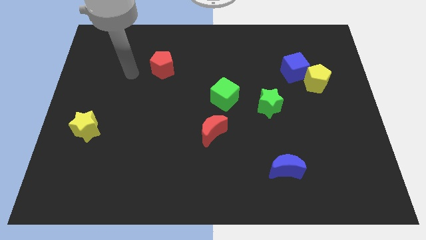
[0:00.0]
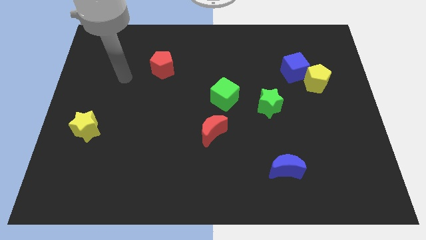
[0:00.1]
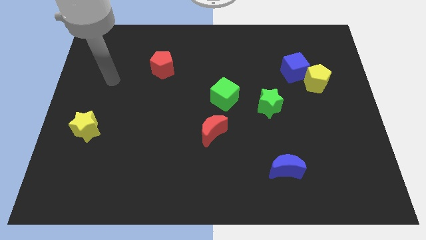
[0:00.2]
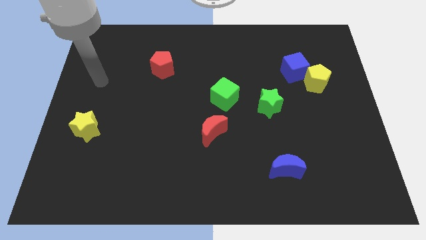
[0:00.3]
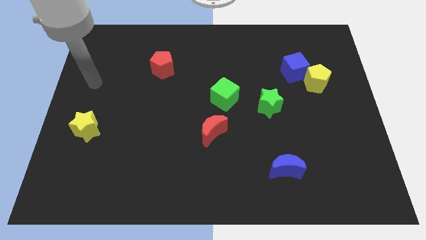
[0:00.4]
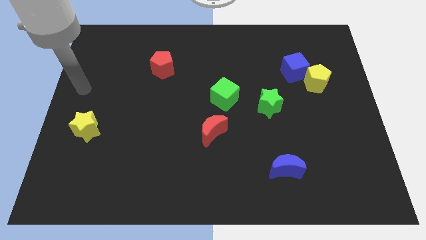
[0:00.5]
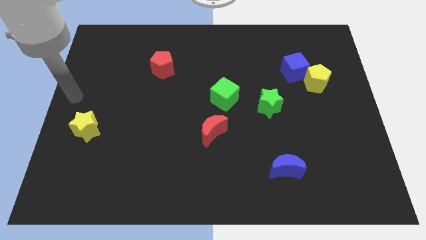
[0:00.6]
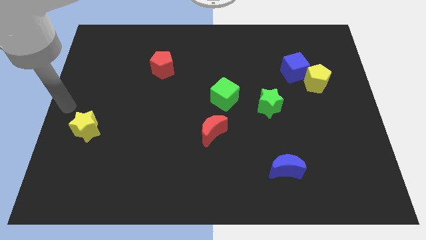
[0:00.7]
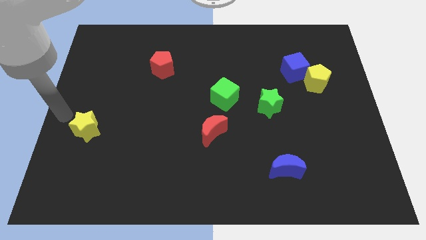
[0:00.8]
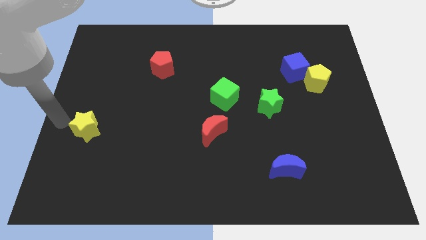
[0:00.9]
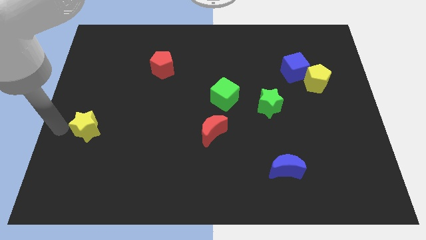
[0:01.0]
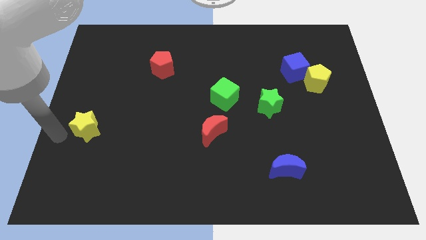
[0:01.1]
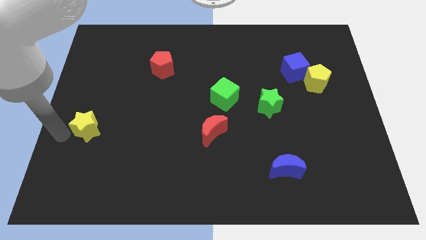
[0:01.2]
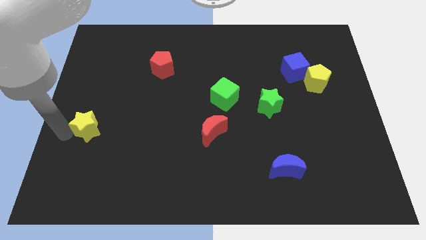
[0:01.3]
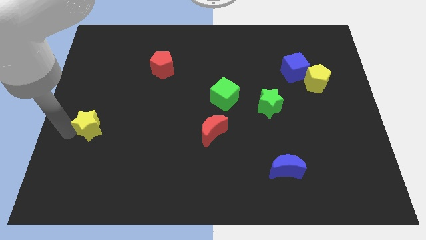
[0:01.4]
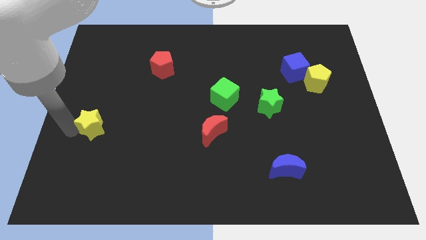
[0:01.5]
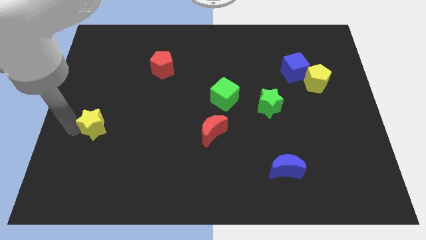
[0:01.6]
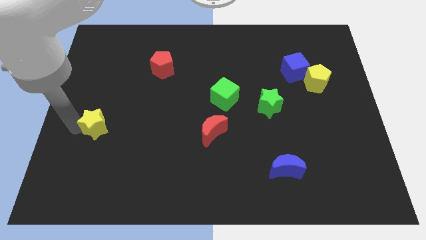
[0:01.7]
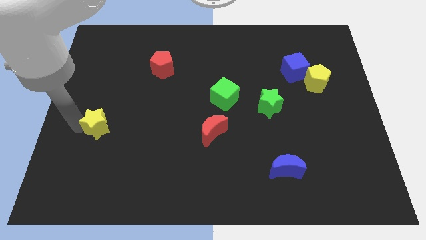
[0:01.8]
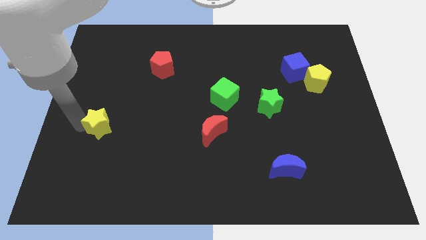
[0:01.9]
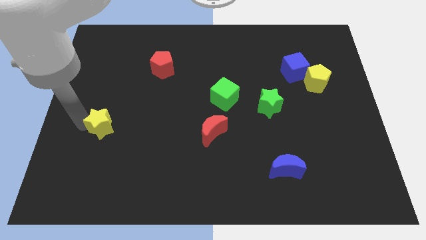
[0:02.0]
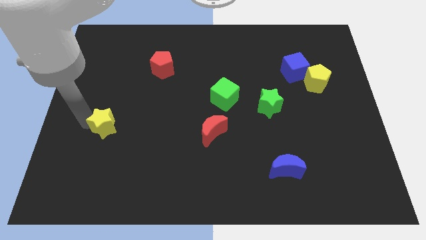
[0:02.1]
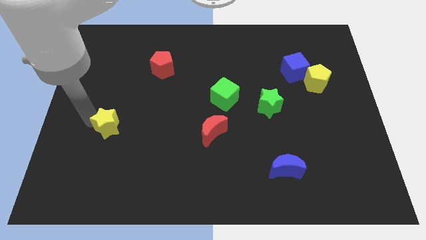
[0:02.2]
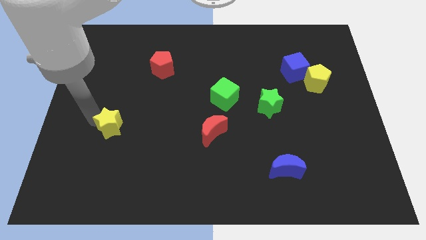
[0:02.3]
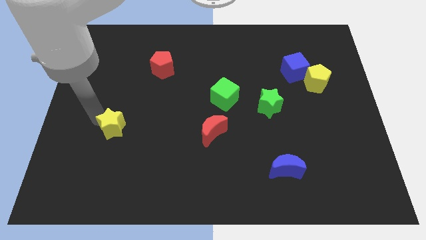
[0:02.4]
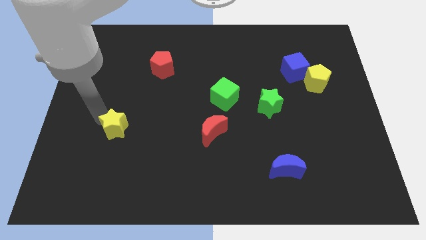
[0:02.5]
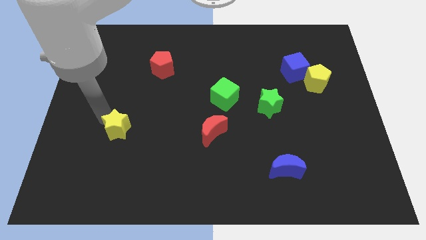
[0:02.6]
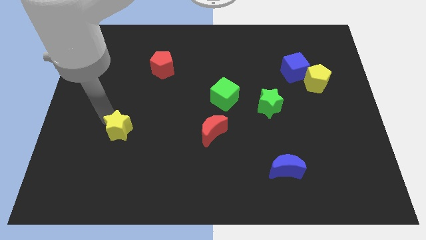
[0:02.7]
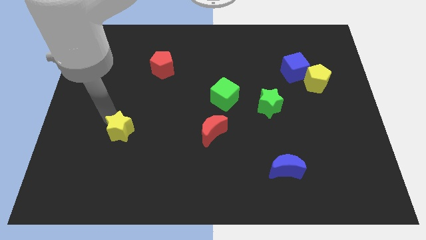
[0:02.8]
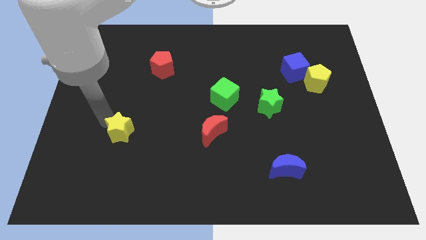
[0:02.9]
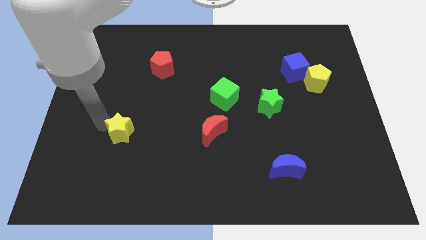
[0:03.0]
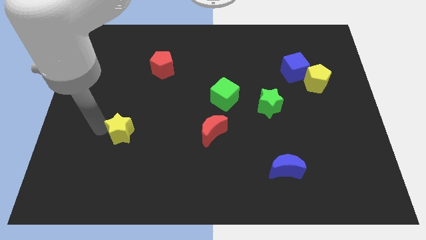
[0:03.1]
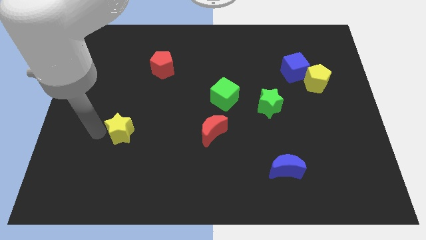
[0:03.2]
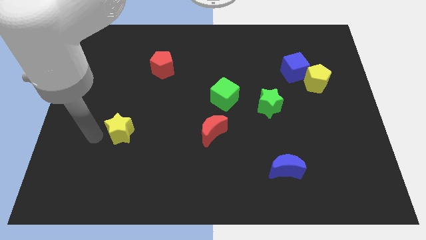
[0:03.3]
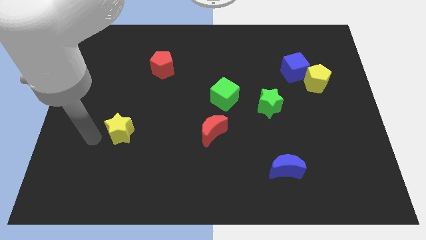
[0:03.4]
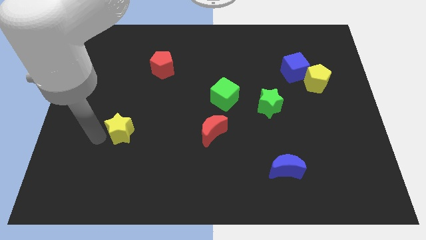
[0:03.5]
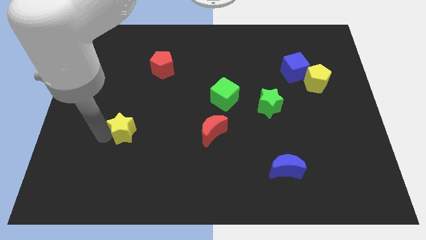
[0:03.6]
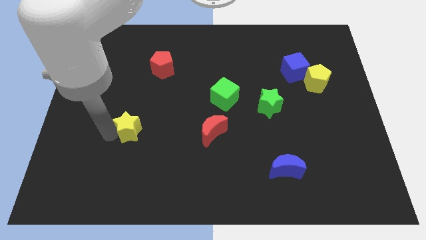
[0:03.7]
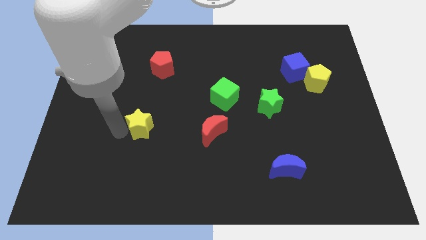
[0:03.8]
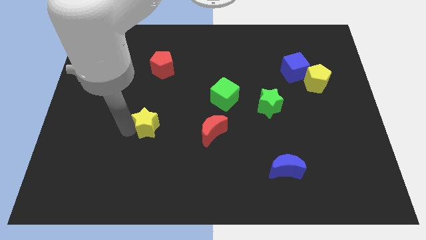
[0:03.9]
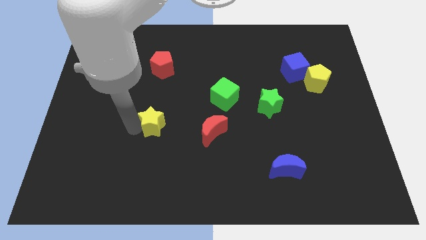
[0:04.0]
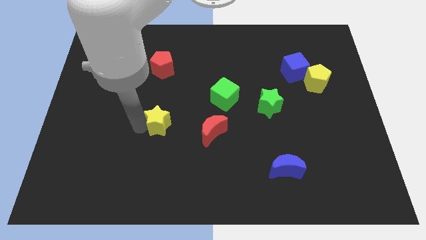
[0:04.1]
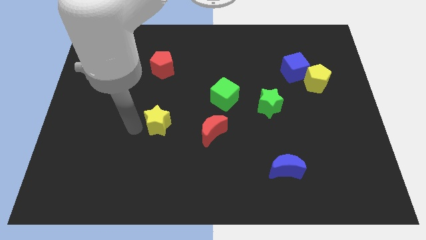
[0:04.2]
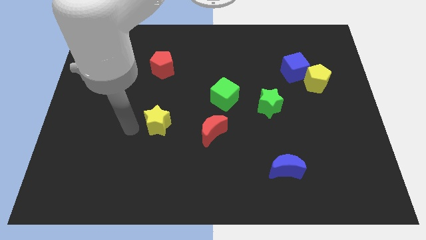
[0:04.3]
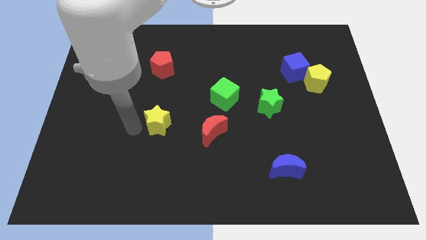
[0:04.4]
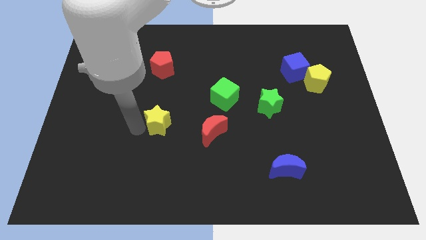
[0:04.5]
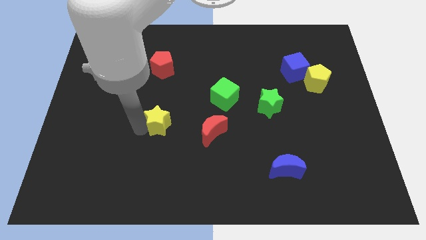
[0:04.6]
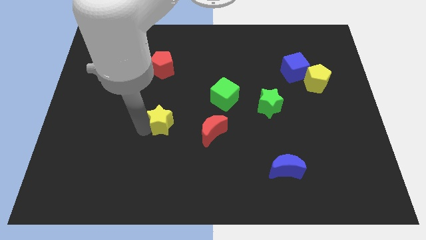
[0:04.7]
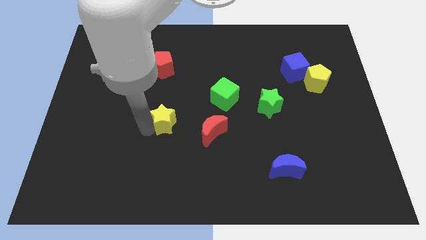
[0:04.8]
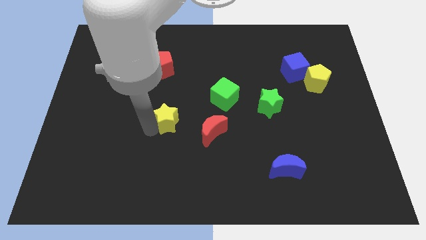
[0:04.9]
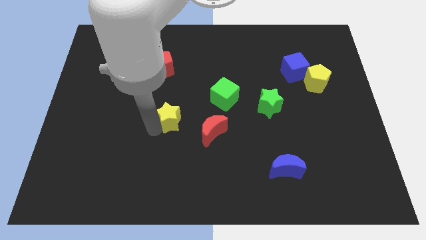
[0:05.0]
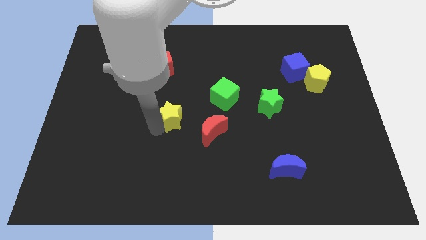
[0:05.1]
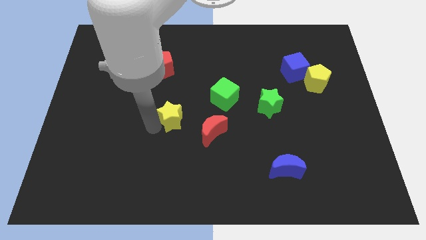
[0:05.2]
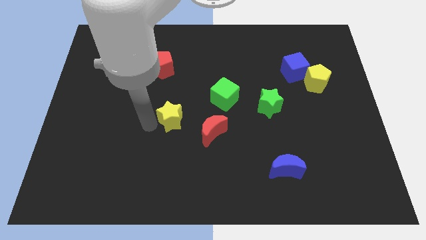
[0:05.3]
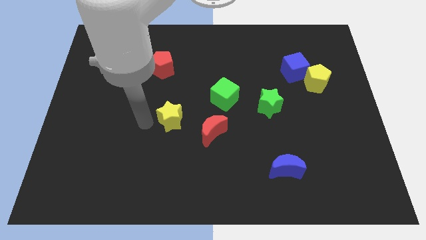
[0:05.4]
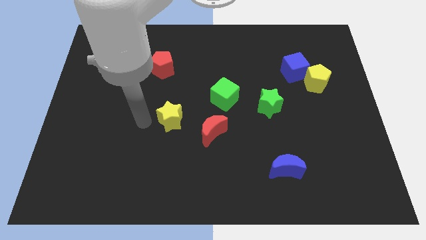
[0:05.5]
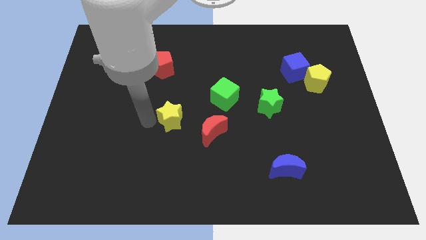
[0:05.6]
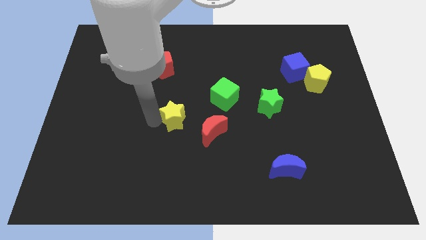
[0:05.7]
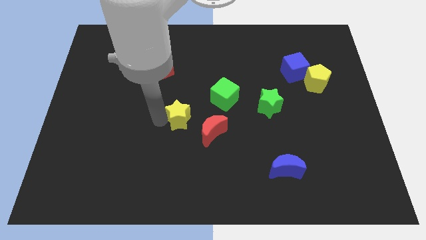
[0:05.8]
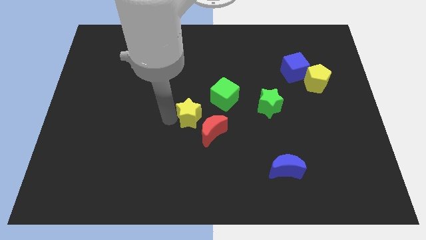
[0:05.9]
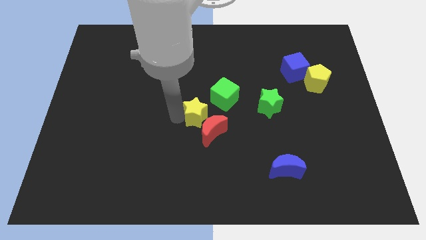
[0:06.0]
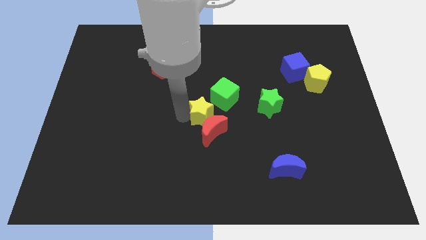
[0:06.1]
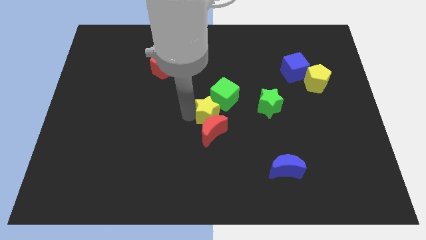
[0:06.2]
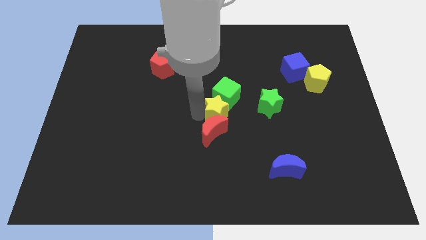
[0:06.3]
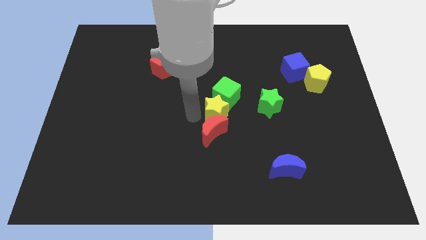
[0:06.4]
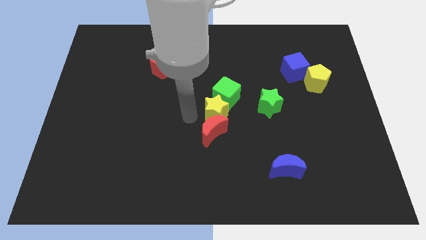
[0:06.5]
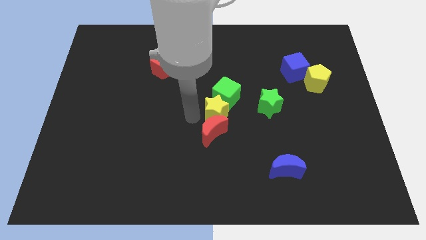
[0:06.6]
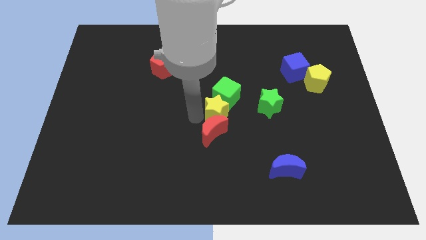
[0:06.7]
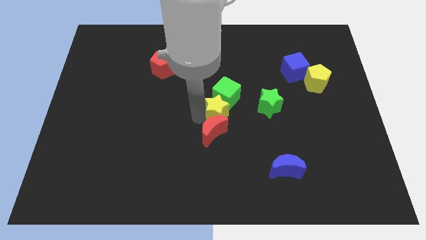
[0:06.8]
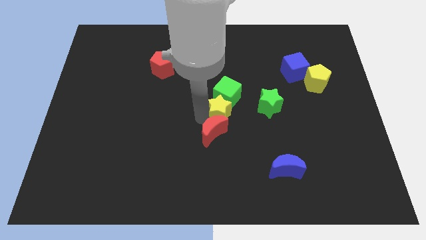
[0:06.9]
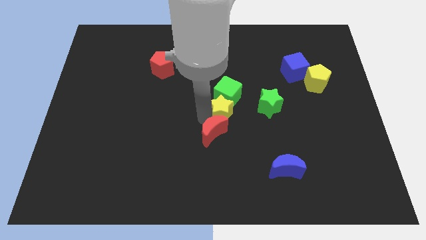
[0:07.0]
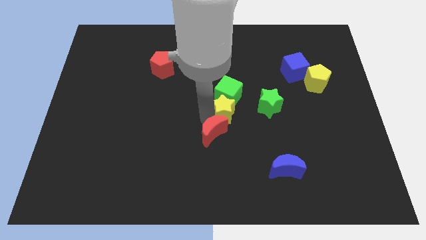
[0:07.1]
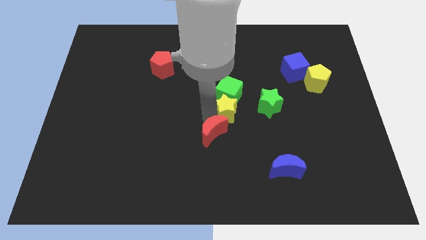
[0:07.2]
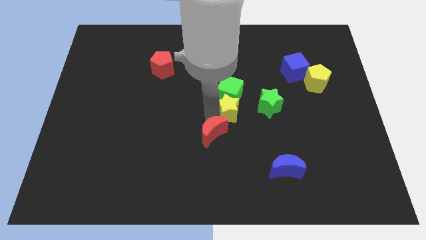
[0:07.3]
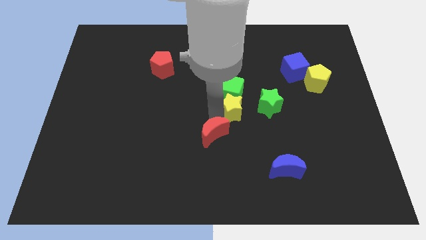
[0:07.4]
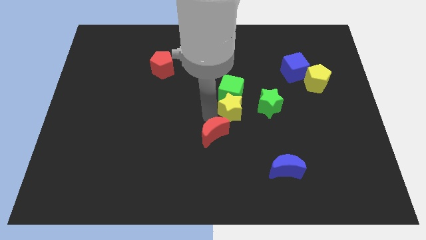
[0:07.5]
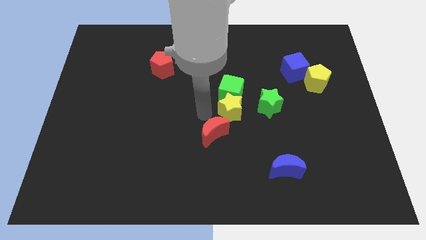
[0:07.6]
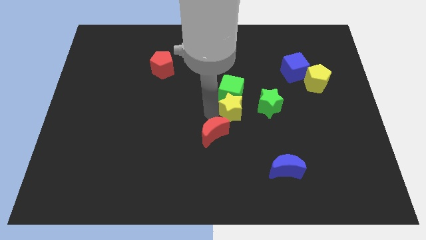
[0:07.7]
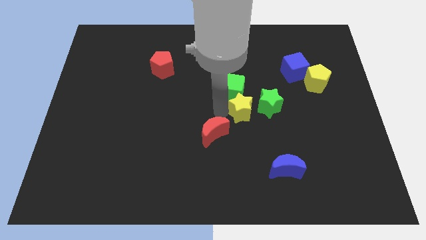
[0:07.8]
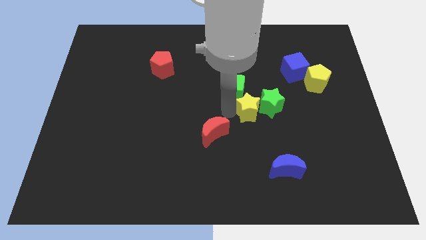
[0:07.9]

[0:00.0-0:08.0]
push the yellow star to the green star
